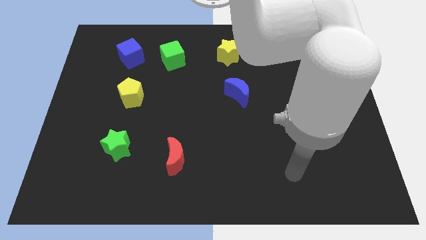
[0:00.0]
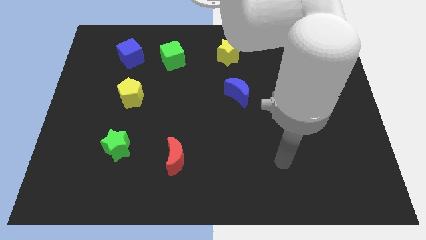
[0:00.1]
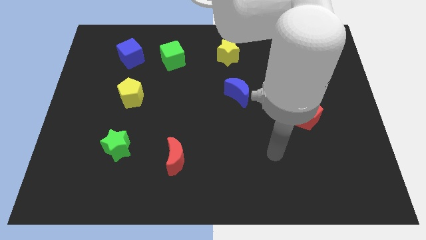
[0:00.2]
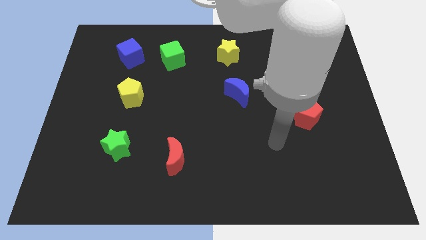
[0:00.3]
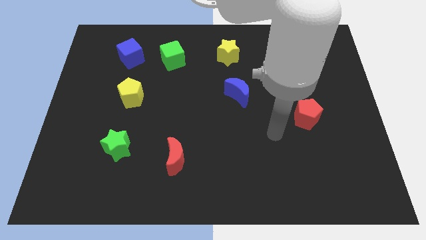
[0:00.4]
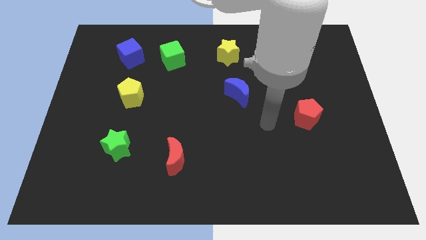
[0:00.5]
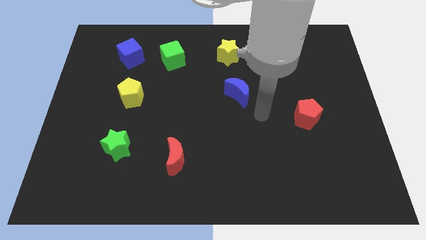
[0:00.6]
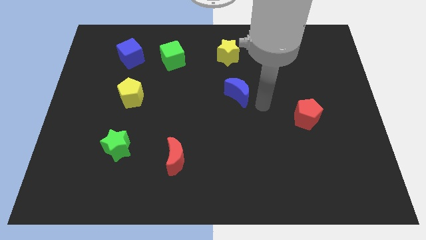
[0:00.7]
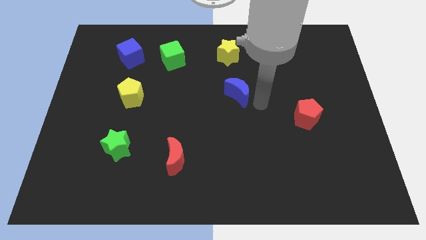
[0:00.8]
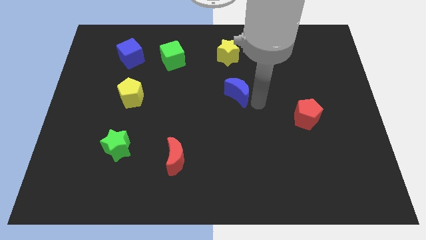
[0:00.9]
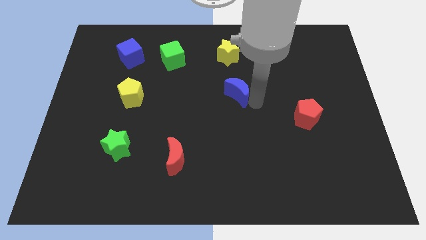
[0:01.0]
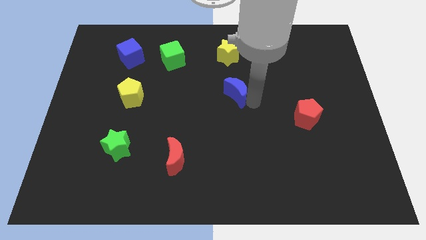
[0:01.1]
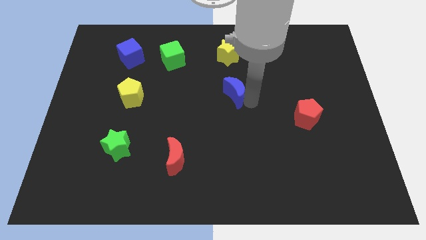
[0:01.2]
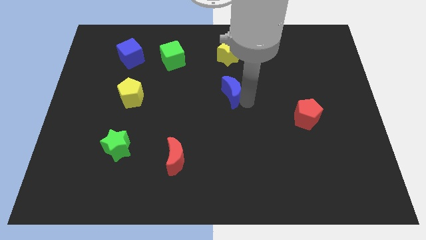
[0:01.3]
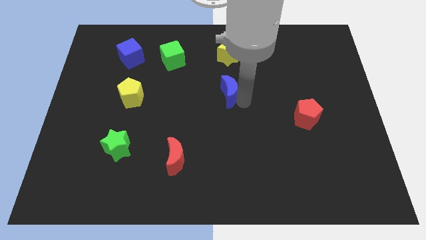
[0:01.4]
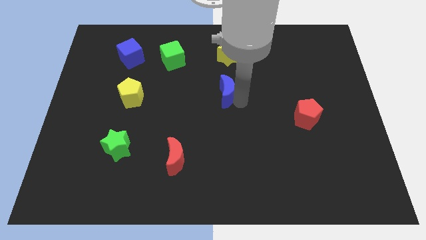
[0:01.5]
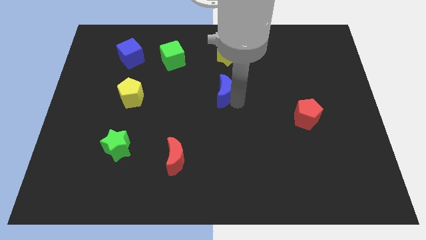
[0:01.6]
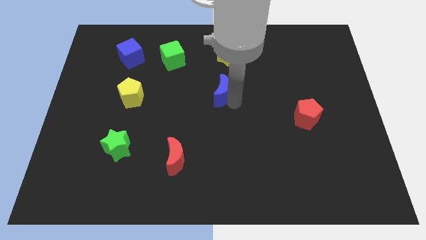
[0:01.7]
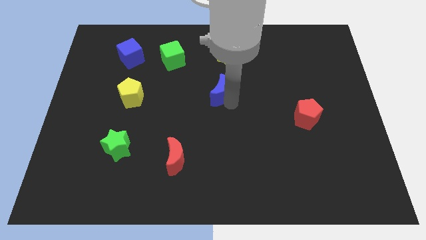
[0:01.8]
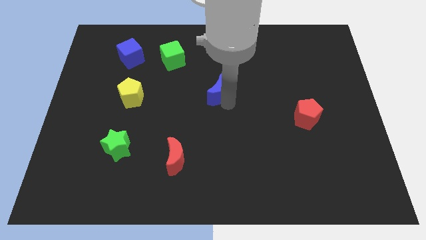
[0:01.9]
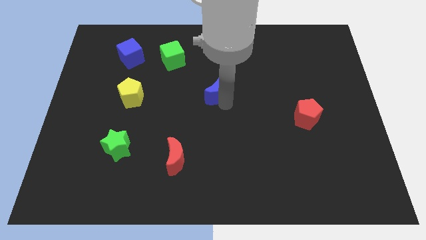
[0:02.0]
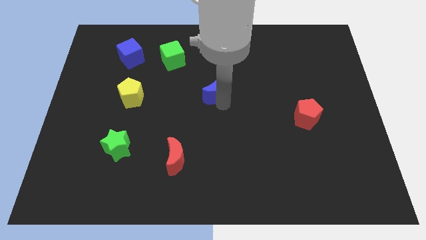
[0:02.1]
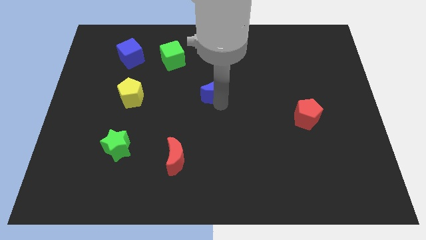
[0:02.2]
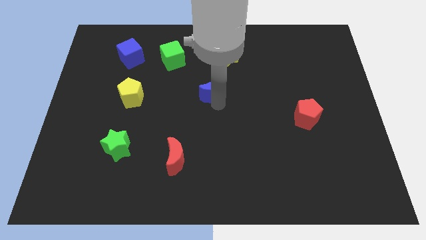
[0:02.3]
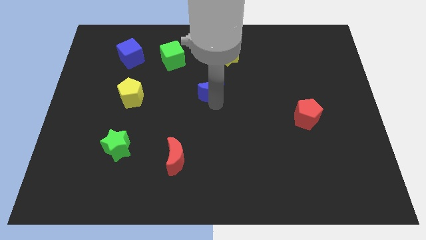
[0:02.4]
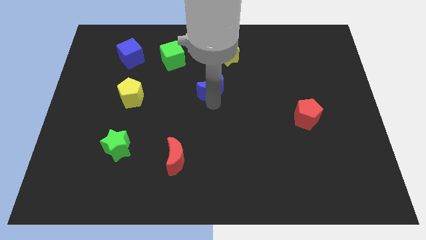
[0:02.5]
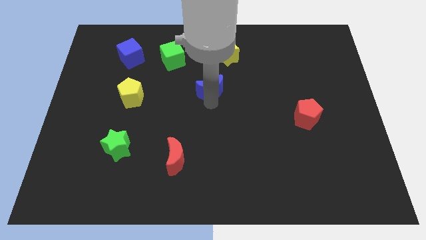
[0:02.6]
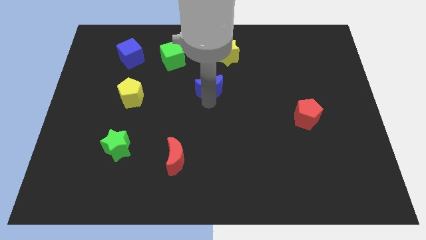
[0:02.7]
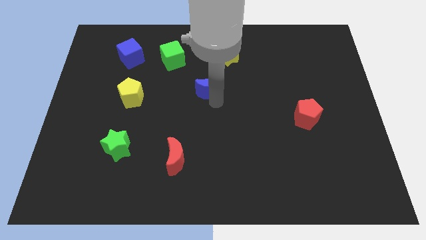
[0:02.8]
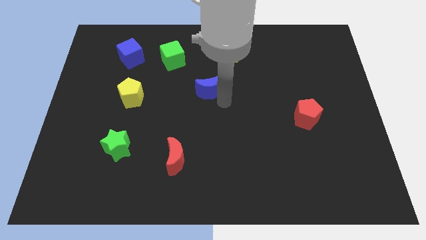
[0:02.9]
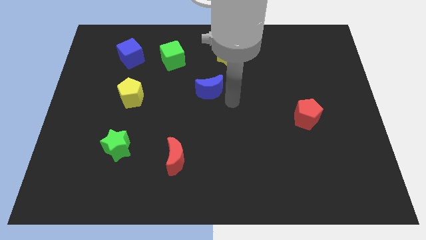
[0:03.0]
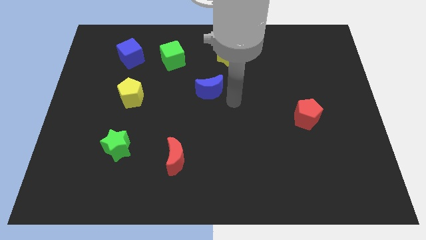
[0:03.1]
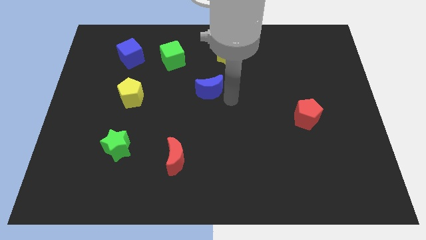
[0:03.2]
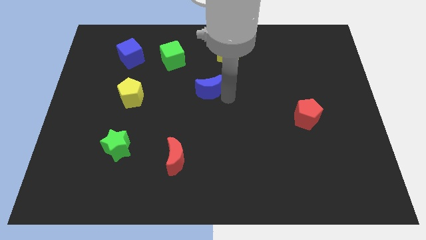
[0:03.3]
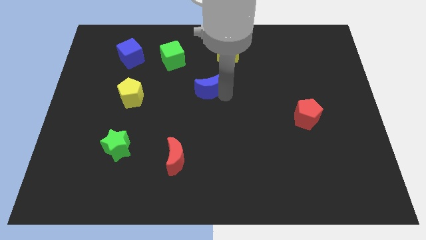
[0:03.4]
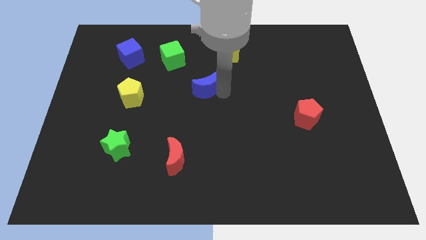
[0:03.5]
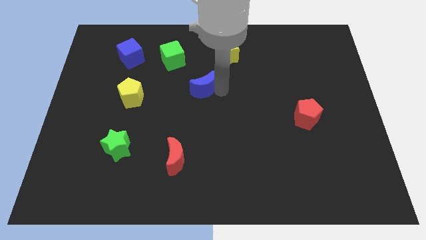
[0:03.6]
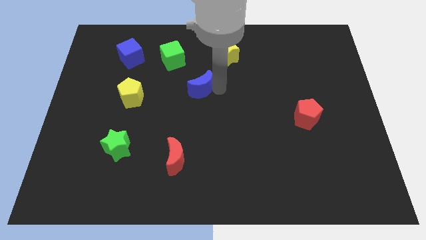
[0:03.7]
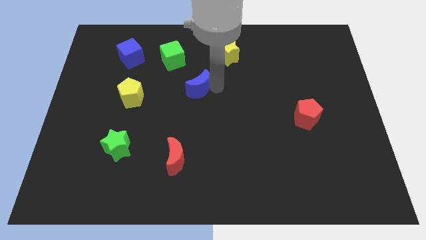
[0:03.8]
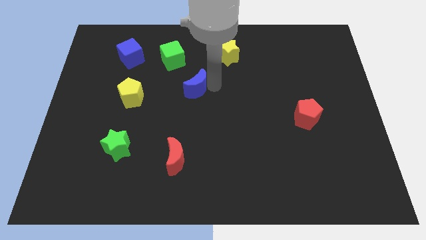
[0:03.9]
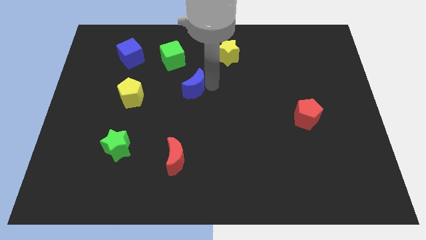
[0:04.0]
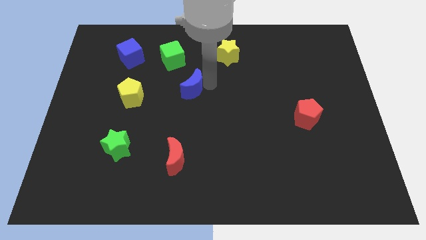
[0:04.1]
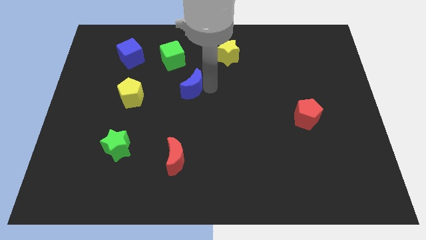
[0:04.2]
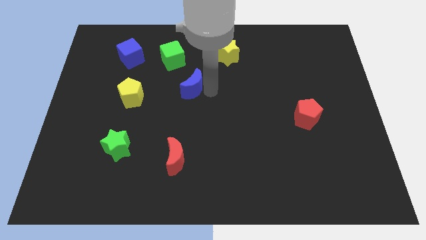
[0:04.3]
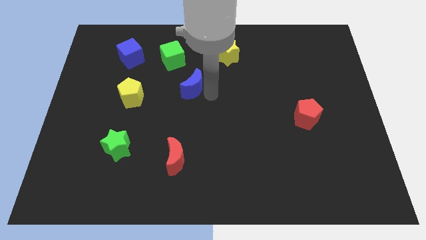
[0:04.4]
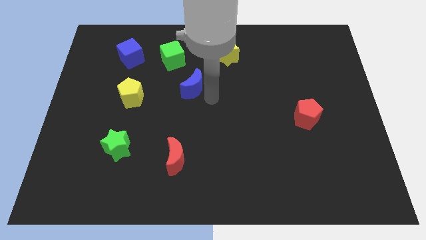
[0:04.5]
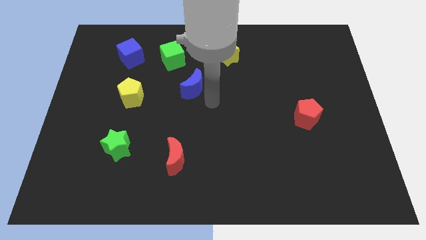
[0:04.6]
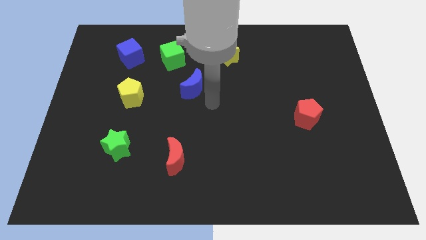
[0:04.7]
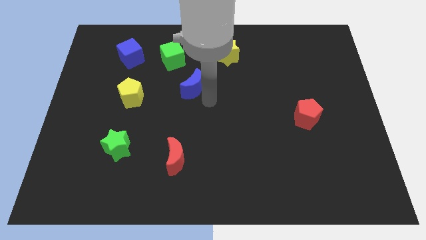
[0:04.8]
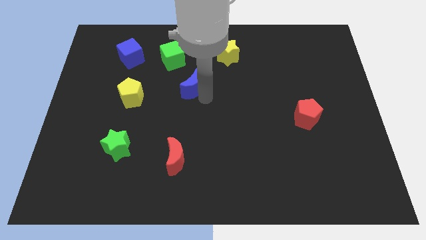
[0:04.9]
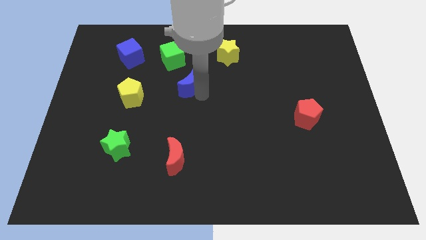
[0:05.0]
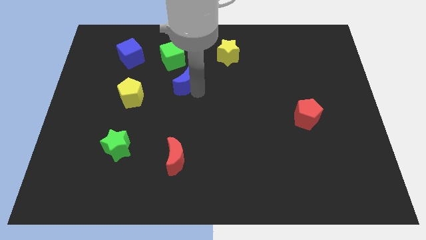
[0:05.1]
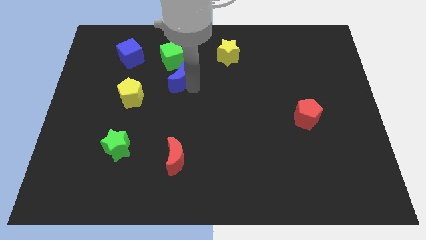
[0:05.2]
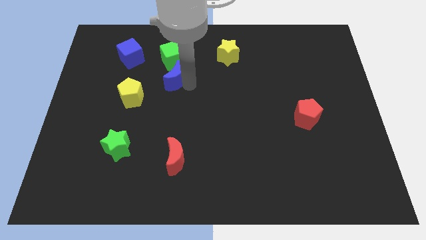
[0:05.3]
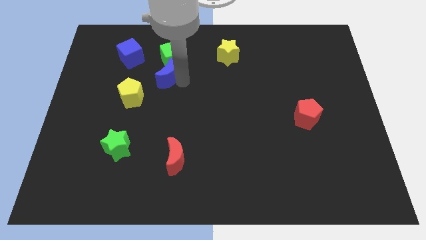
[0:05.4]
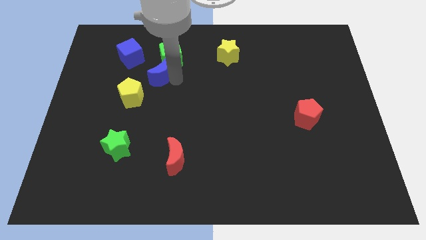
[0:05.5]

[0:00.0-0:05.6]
push the blue moon to the bottom right of the blue cube

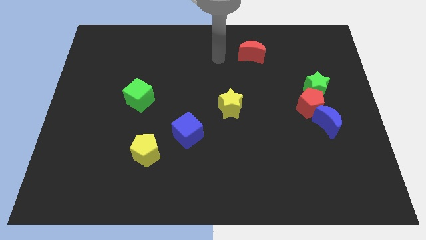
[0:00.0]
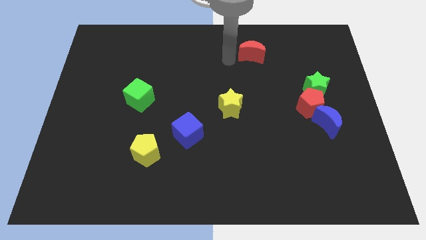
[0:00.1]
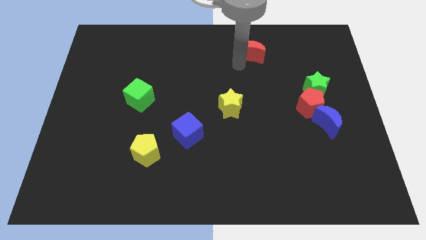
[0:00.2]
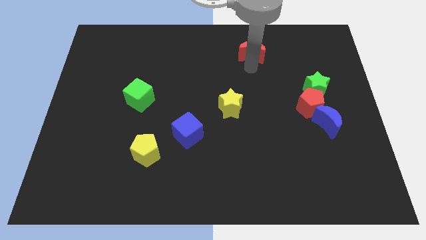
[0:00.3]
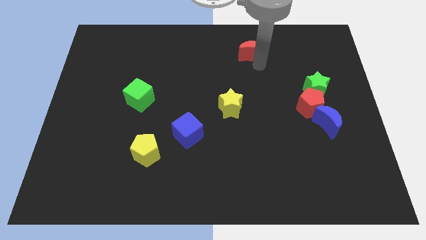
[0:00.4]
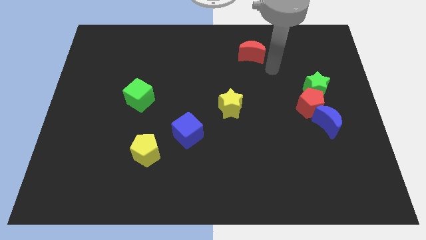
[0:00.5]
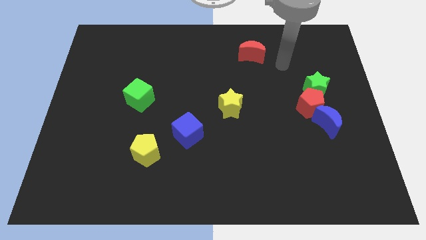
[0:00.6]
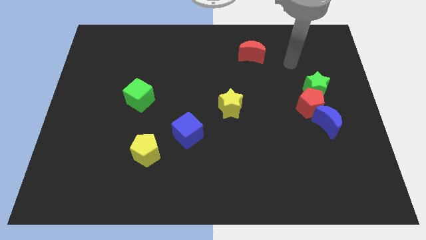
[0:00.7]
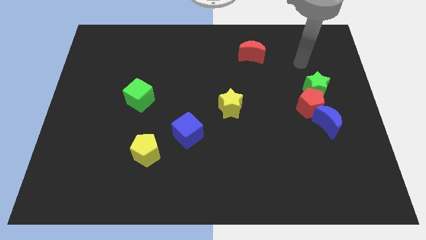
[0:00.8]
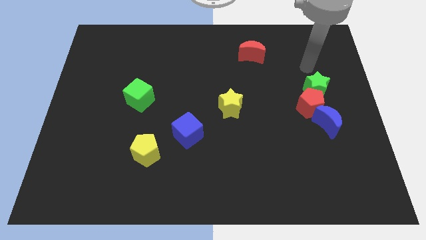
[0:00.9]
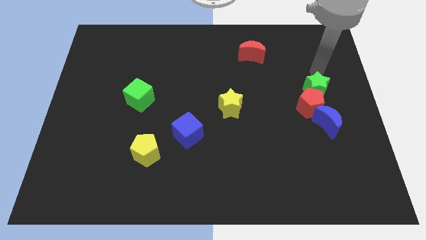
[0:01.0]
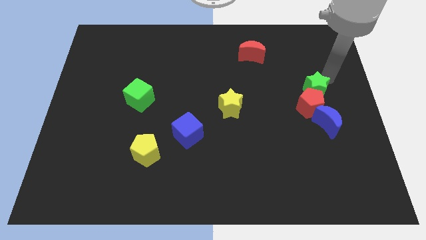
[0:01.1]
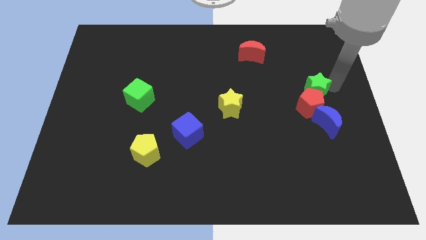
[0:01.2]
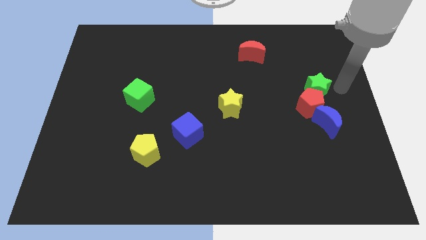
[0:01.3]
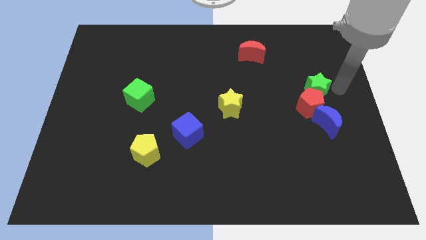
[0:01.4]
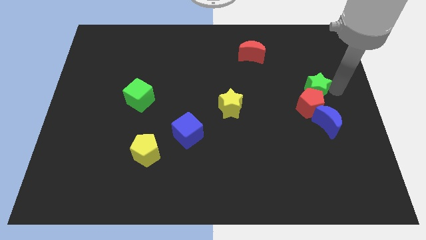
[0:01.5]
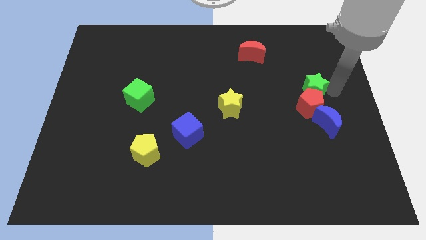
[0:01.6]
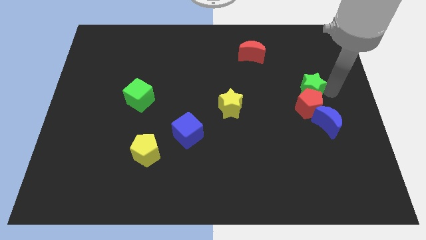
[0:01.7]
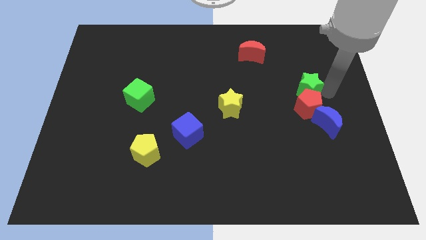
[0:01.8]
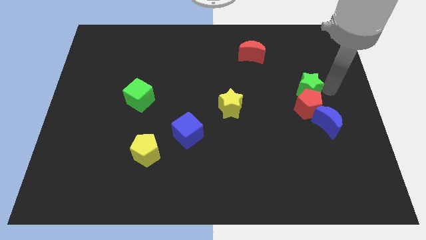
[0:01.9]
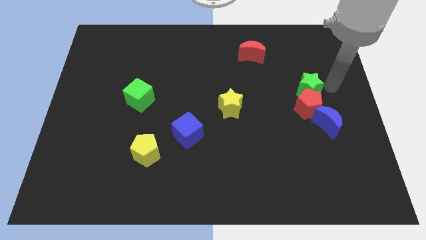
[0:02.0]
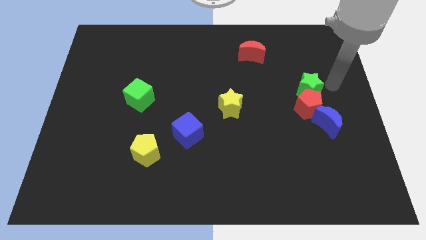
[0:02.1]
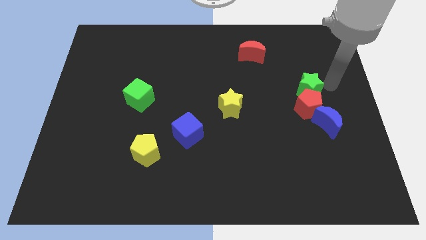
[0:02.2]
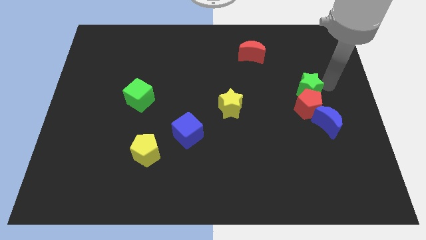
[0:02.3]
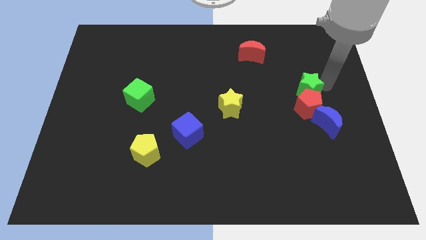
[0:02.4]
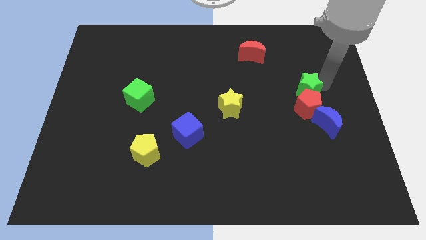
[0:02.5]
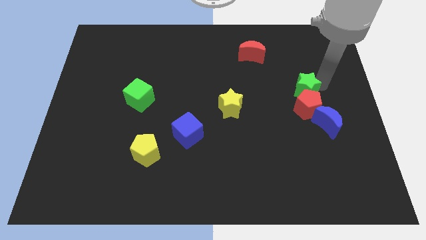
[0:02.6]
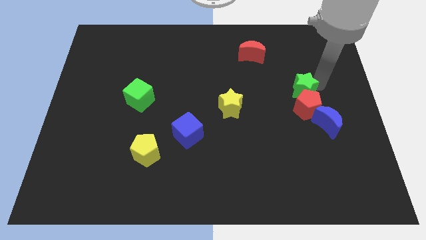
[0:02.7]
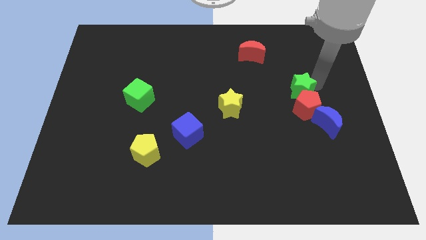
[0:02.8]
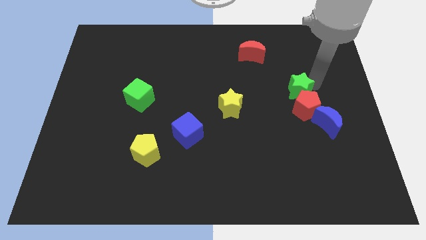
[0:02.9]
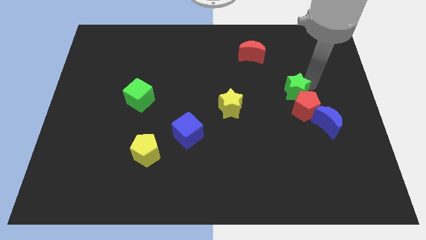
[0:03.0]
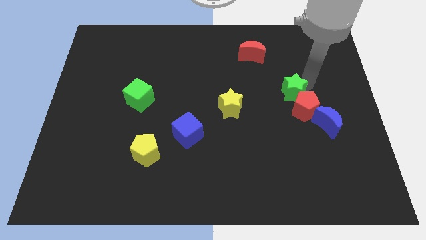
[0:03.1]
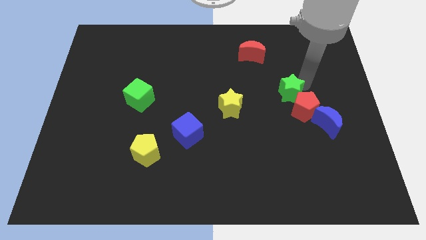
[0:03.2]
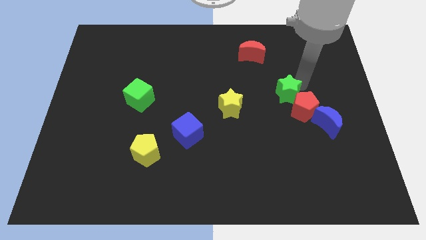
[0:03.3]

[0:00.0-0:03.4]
push the green star just right of the yellow star
